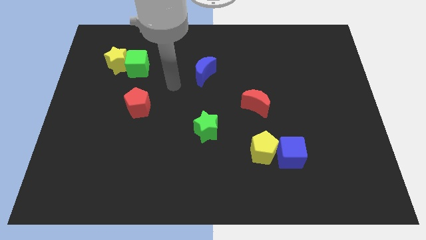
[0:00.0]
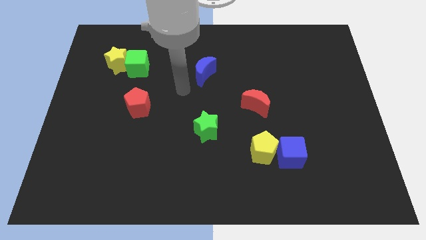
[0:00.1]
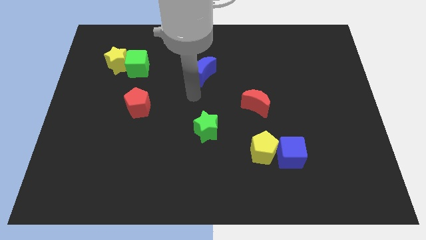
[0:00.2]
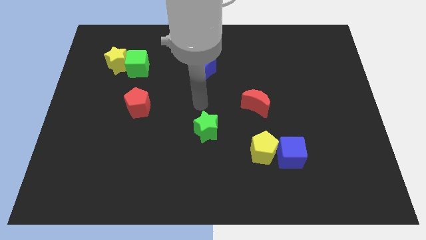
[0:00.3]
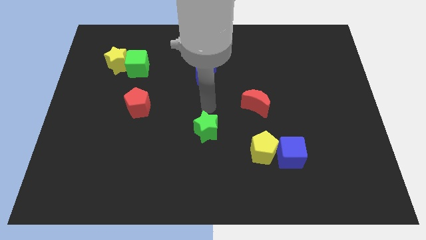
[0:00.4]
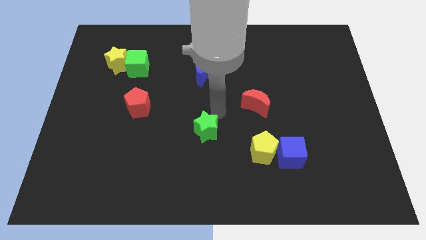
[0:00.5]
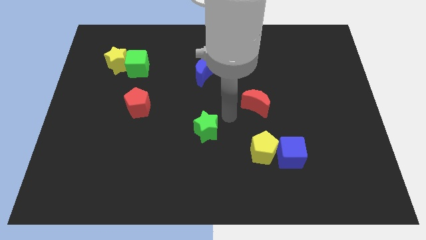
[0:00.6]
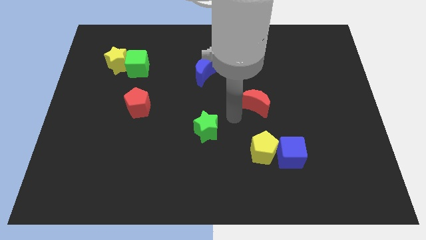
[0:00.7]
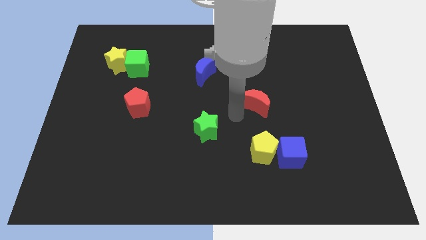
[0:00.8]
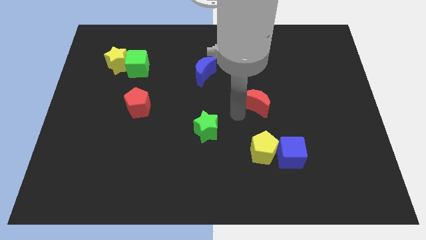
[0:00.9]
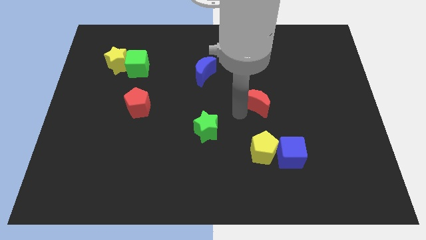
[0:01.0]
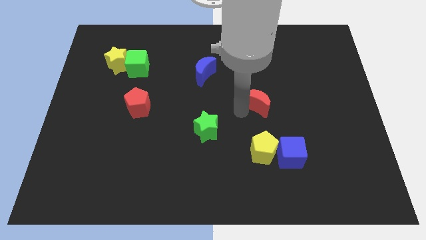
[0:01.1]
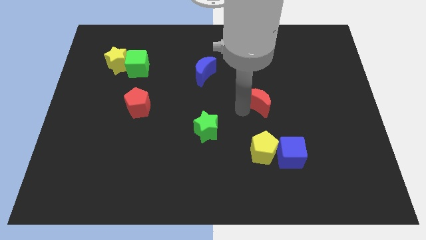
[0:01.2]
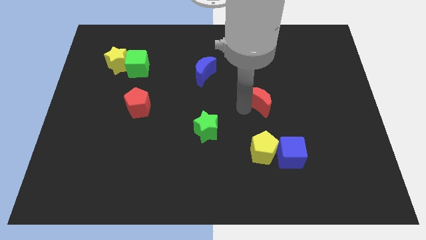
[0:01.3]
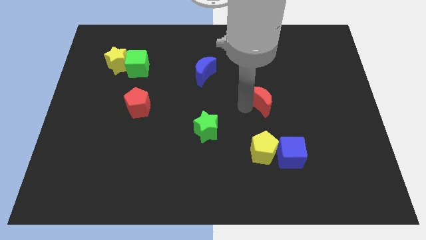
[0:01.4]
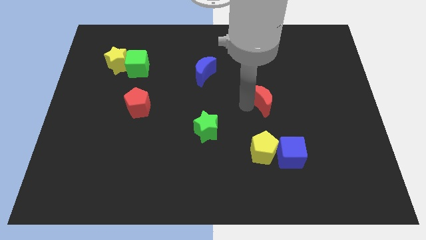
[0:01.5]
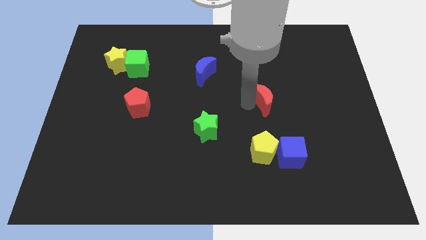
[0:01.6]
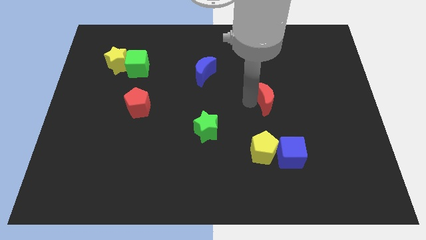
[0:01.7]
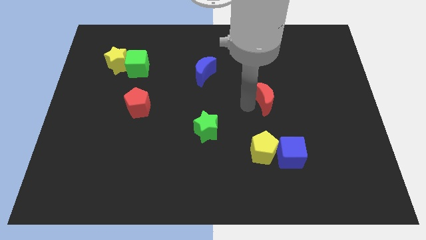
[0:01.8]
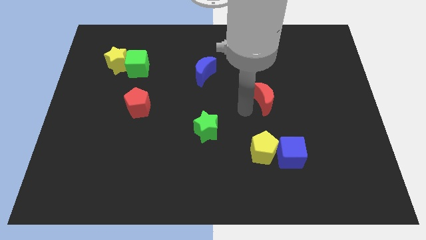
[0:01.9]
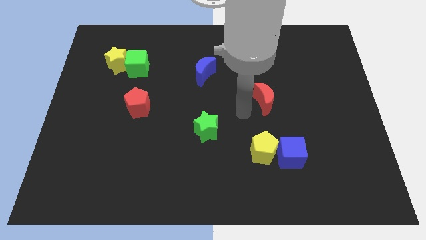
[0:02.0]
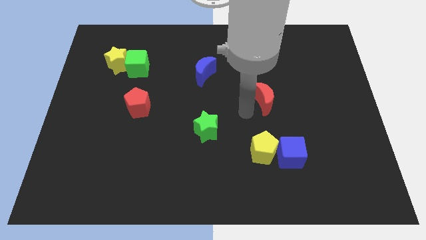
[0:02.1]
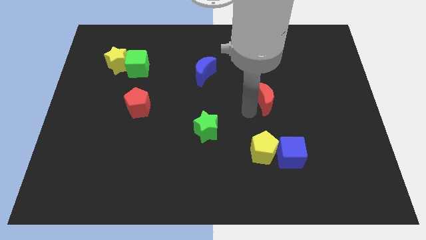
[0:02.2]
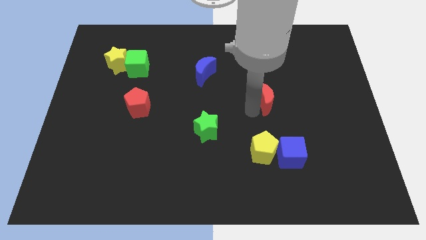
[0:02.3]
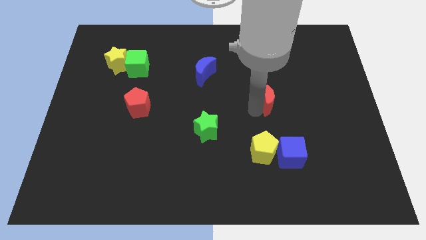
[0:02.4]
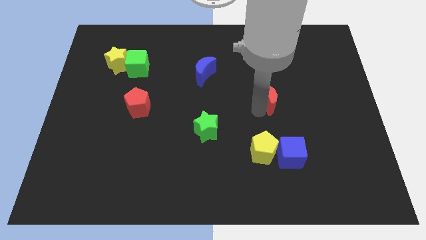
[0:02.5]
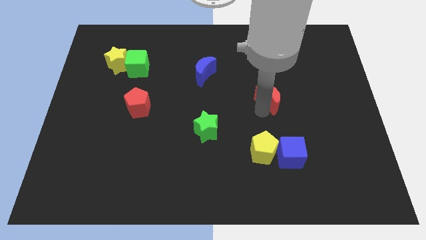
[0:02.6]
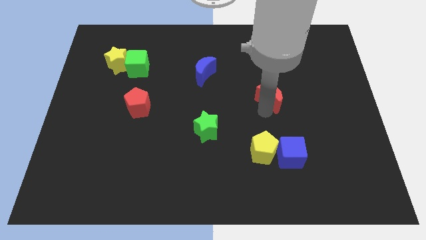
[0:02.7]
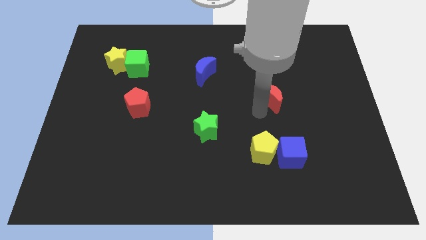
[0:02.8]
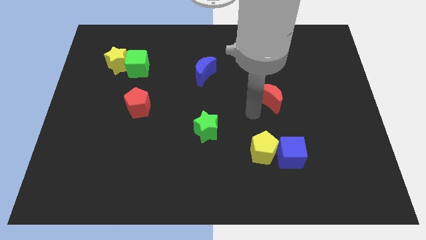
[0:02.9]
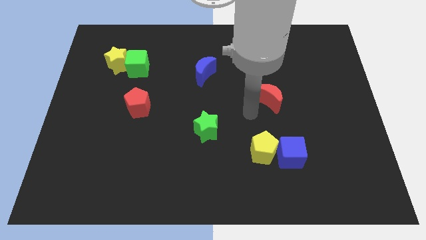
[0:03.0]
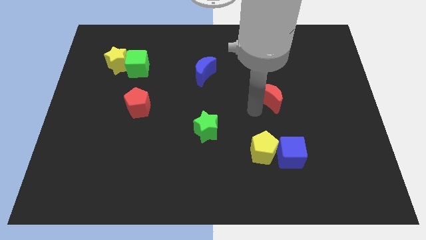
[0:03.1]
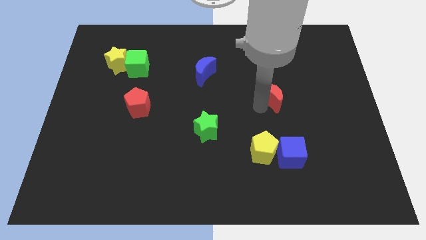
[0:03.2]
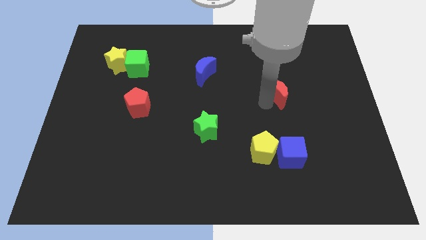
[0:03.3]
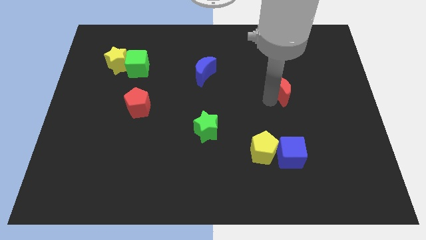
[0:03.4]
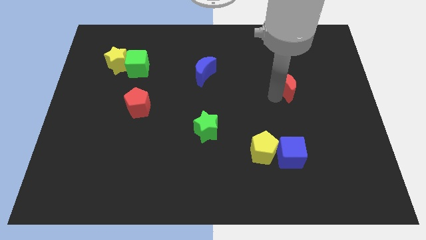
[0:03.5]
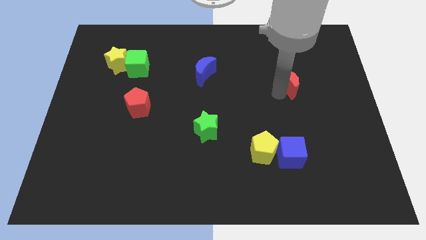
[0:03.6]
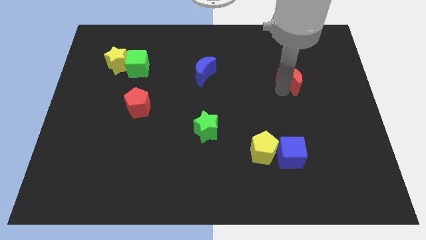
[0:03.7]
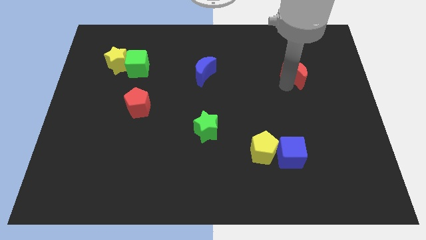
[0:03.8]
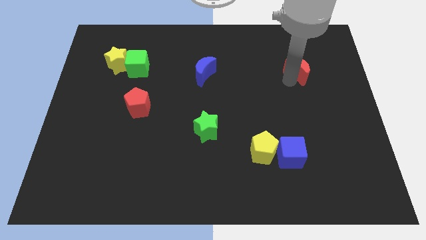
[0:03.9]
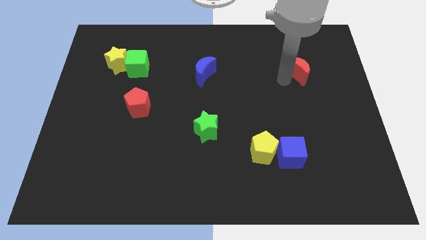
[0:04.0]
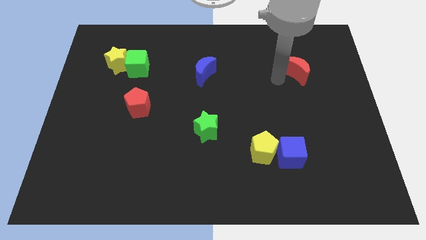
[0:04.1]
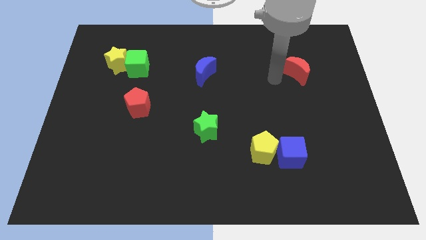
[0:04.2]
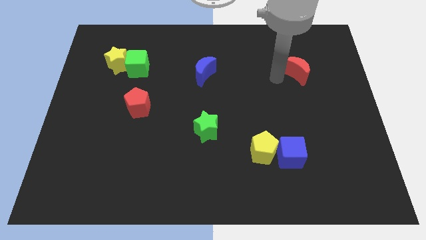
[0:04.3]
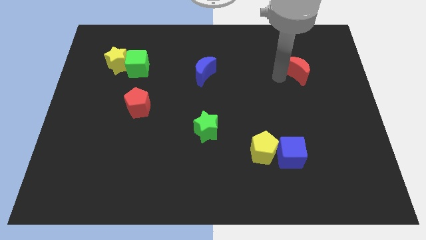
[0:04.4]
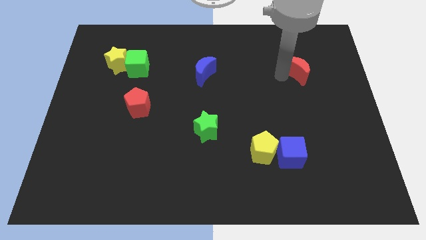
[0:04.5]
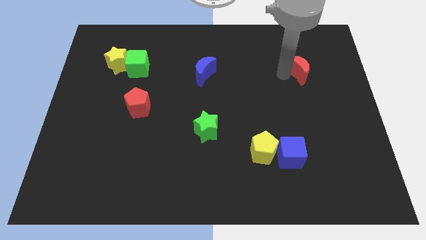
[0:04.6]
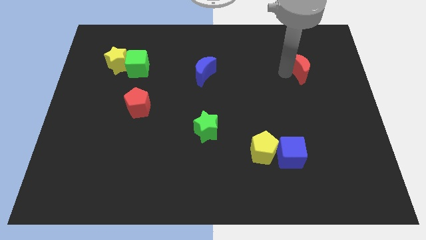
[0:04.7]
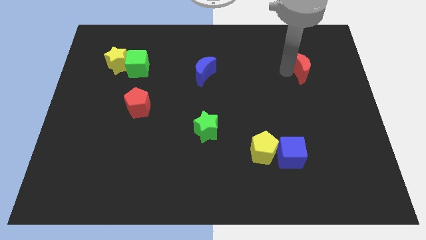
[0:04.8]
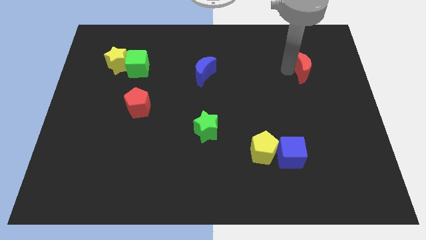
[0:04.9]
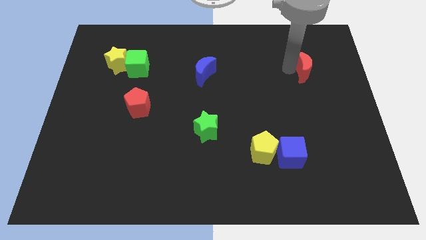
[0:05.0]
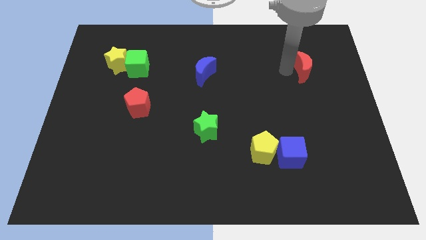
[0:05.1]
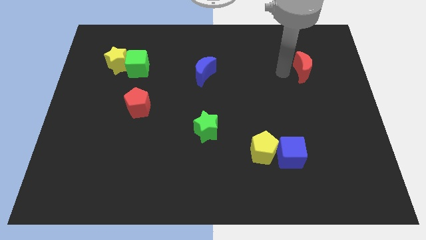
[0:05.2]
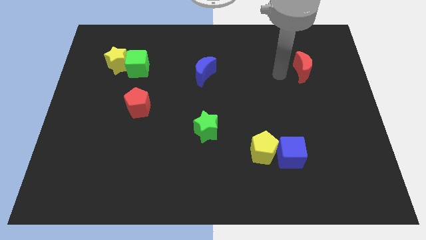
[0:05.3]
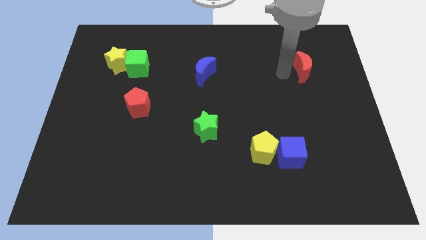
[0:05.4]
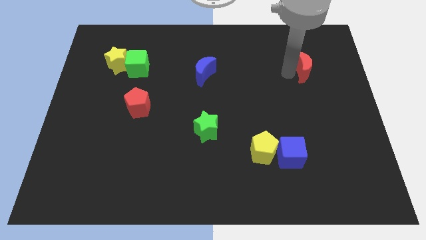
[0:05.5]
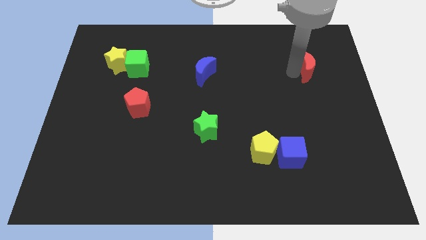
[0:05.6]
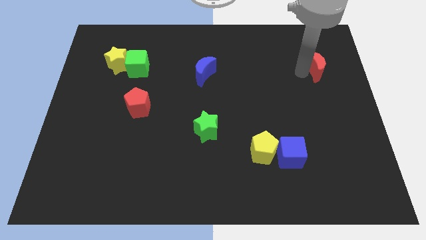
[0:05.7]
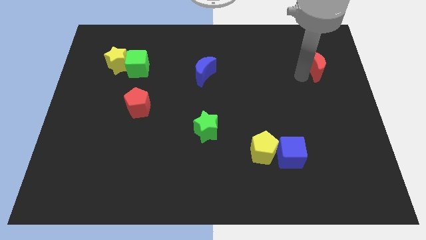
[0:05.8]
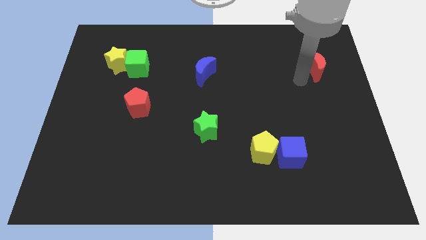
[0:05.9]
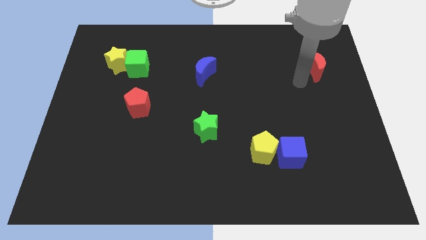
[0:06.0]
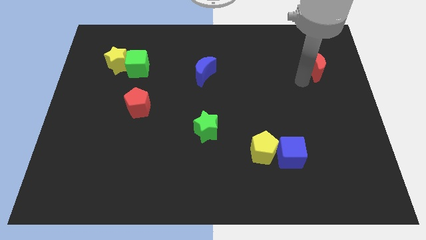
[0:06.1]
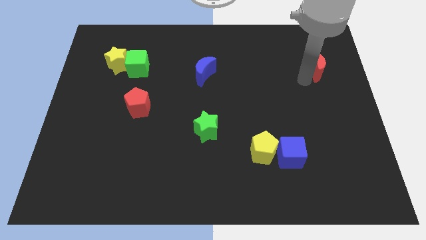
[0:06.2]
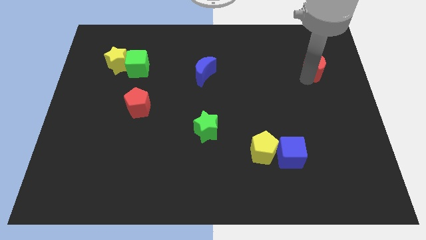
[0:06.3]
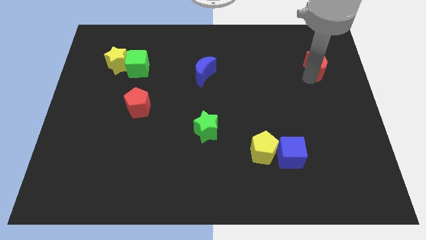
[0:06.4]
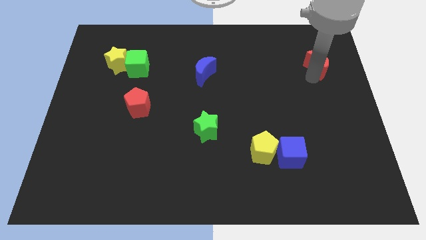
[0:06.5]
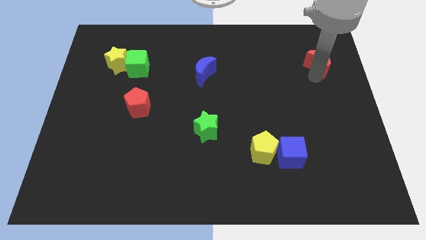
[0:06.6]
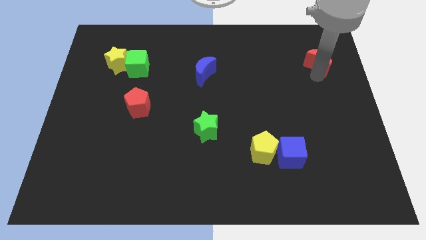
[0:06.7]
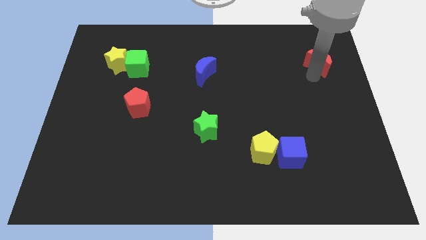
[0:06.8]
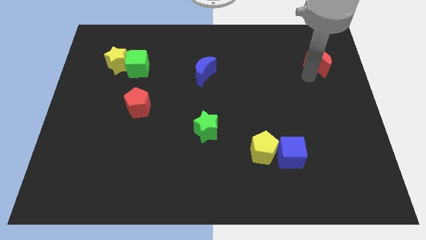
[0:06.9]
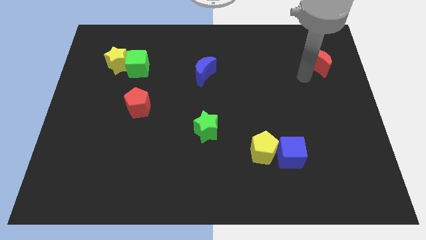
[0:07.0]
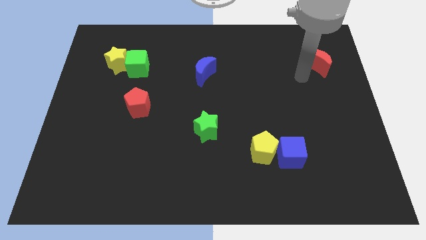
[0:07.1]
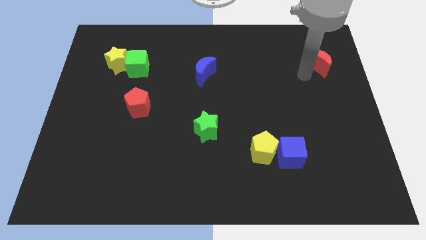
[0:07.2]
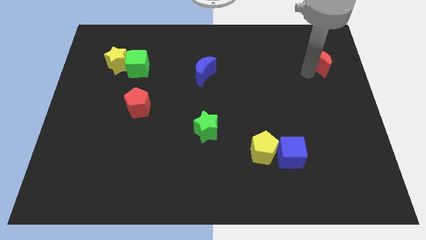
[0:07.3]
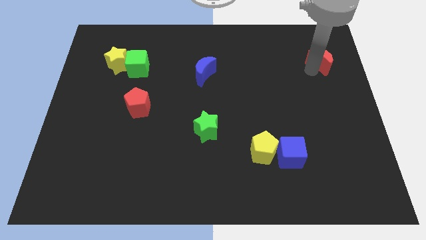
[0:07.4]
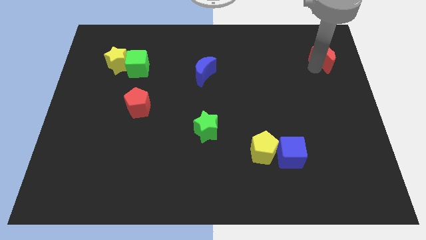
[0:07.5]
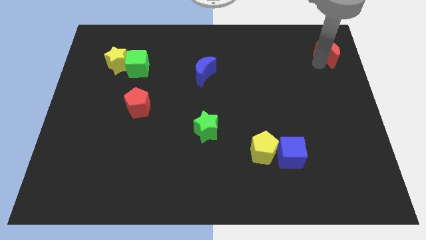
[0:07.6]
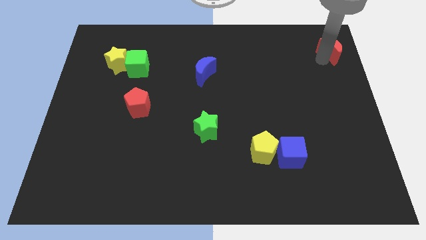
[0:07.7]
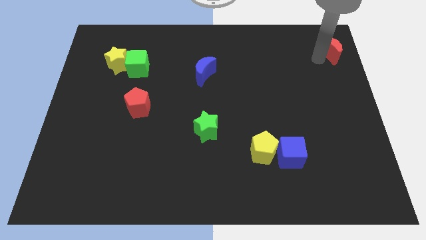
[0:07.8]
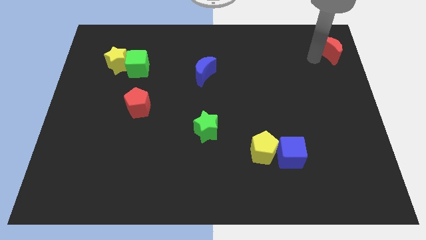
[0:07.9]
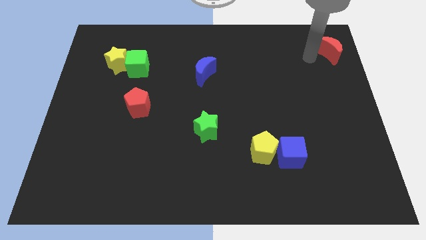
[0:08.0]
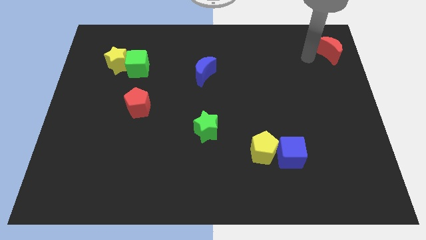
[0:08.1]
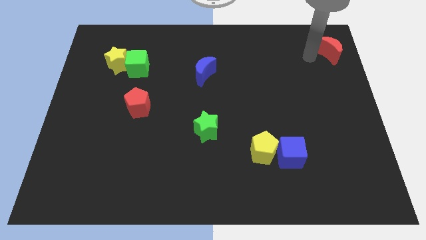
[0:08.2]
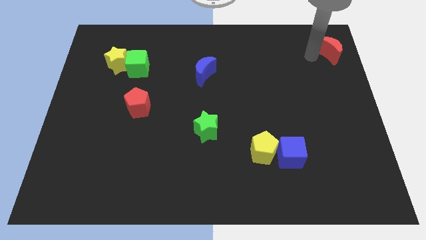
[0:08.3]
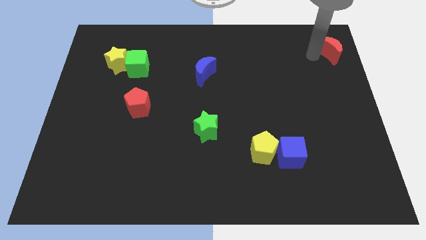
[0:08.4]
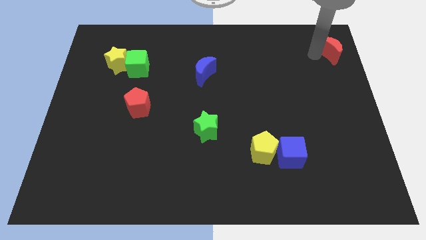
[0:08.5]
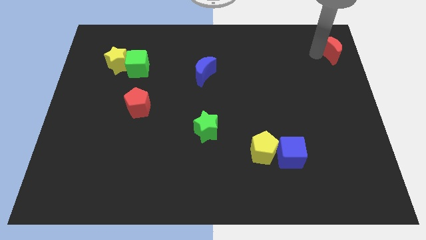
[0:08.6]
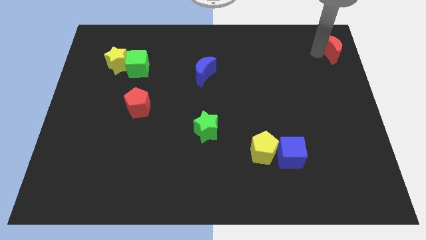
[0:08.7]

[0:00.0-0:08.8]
move the red moon to the upper right corner
